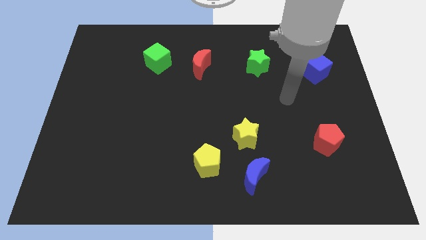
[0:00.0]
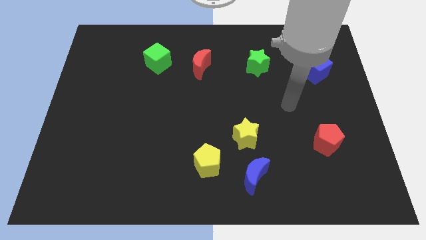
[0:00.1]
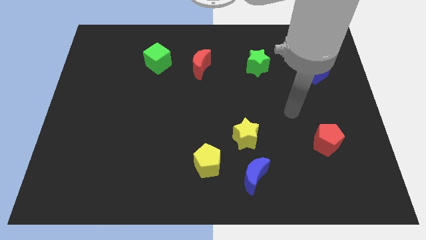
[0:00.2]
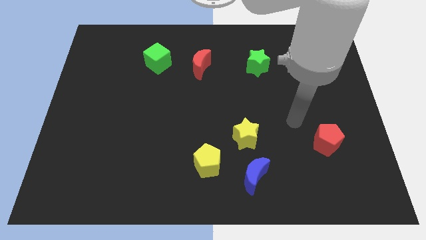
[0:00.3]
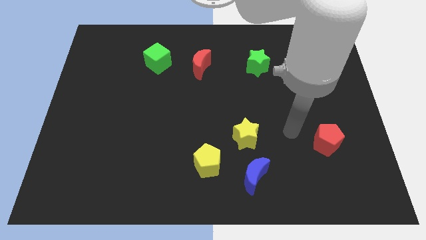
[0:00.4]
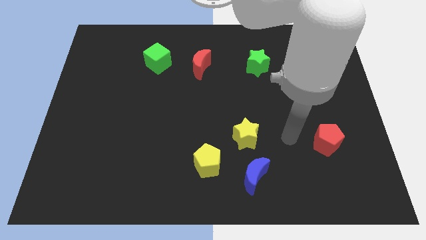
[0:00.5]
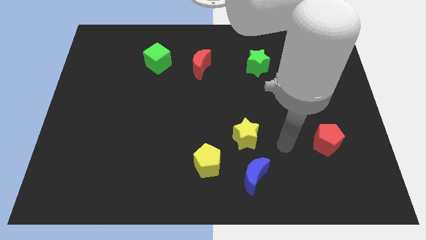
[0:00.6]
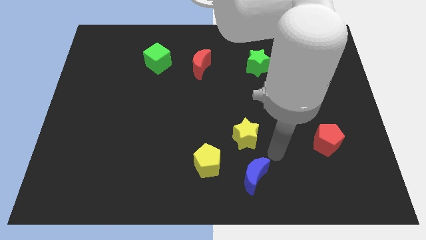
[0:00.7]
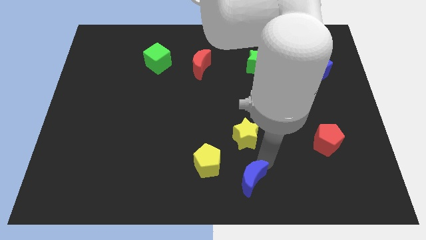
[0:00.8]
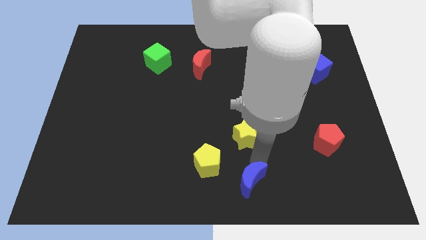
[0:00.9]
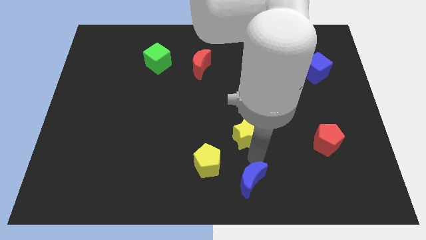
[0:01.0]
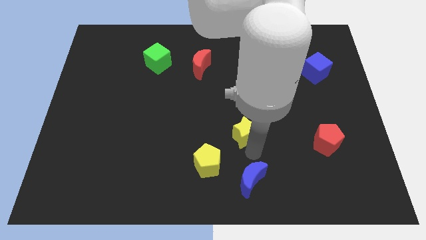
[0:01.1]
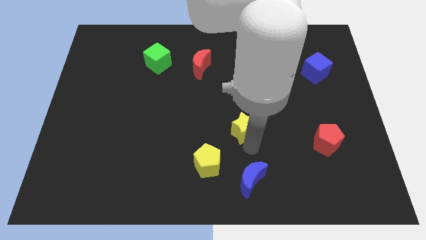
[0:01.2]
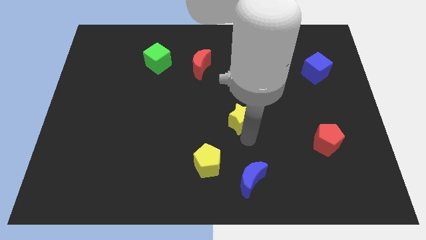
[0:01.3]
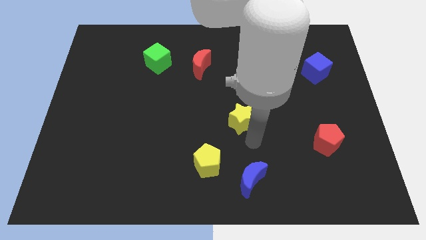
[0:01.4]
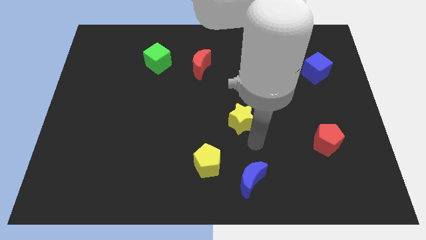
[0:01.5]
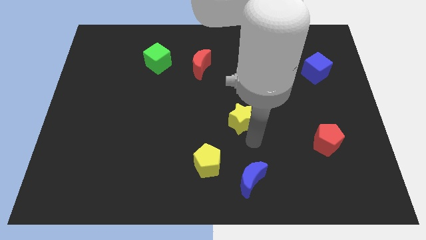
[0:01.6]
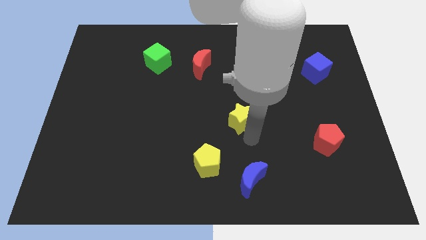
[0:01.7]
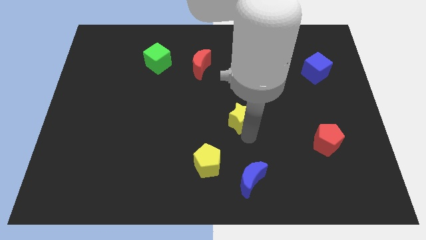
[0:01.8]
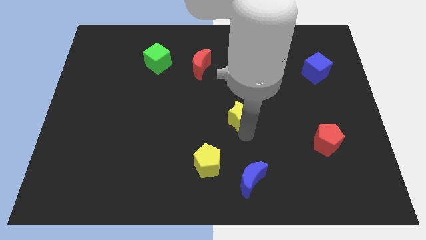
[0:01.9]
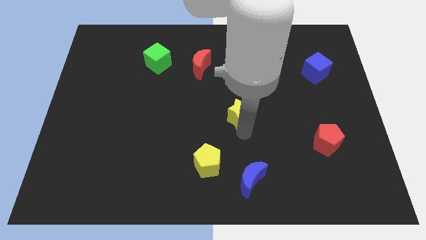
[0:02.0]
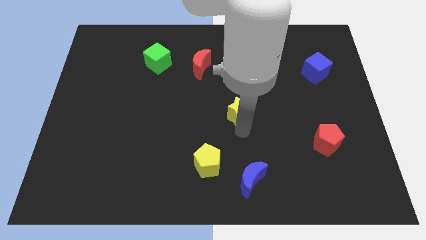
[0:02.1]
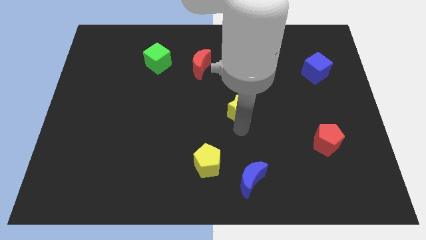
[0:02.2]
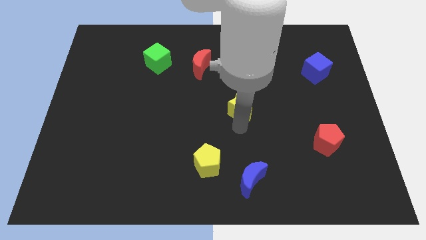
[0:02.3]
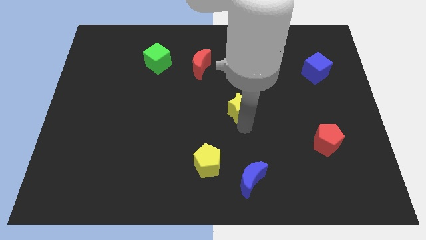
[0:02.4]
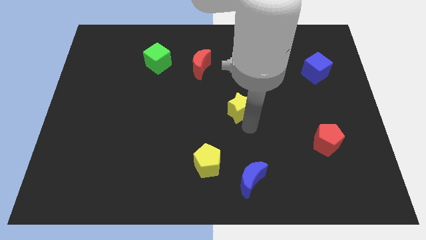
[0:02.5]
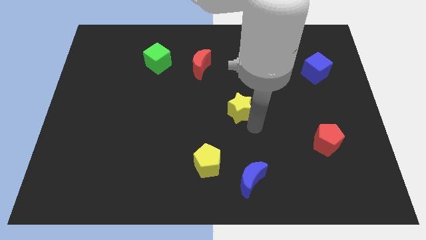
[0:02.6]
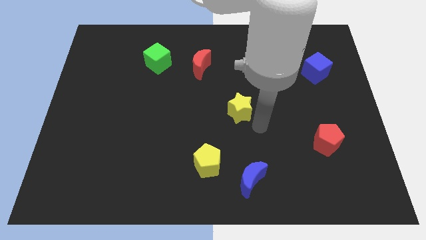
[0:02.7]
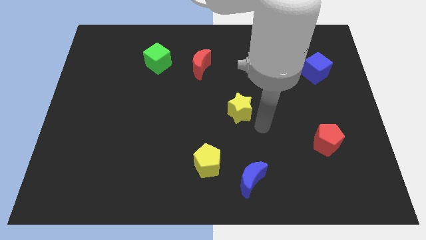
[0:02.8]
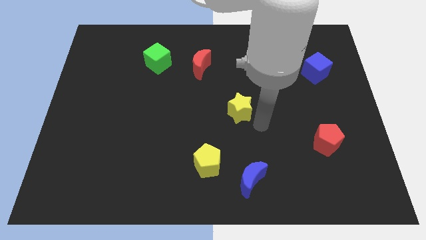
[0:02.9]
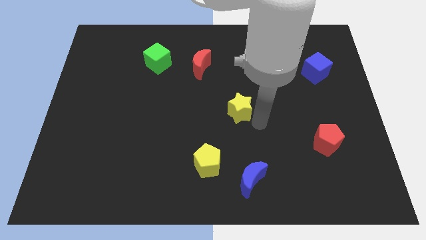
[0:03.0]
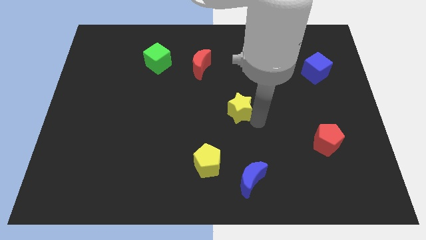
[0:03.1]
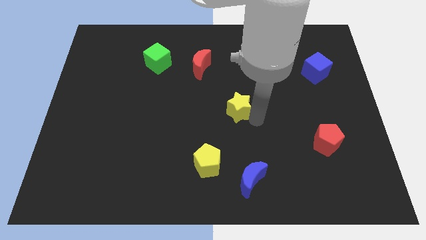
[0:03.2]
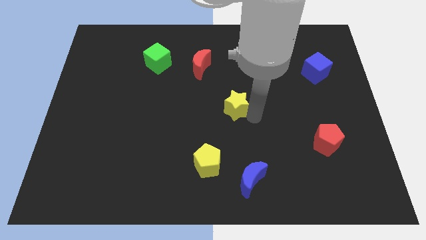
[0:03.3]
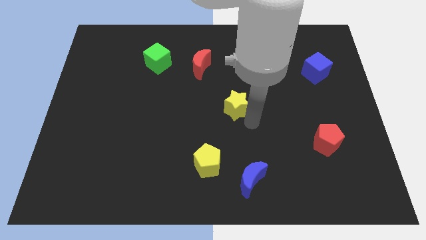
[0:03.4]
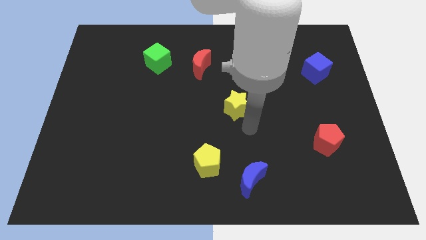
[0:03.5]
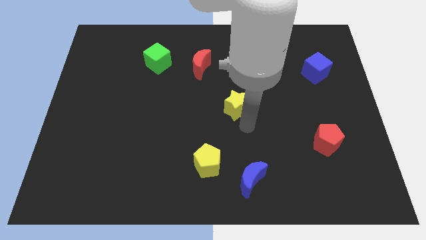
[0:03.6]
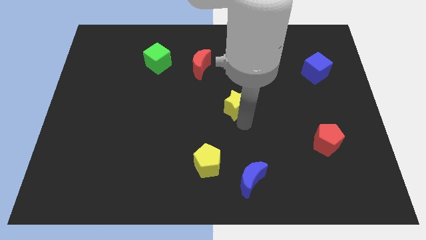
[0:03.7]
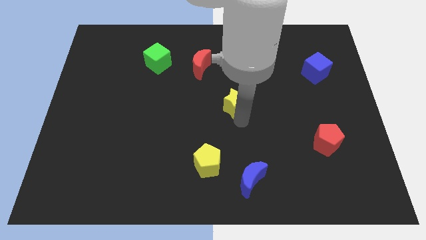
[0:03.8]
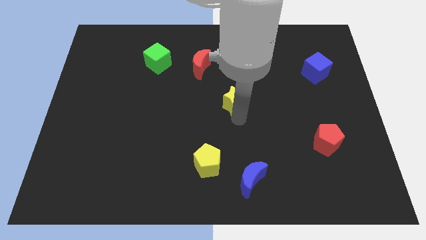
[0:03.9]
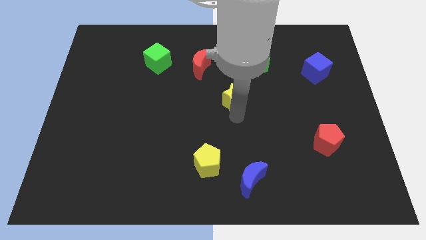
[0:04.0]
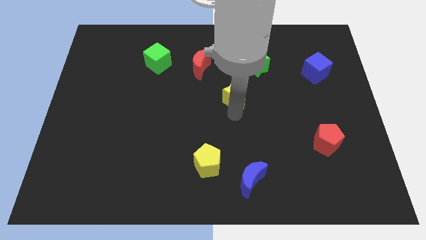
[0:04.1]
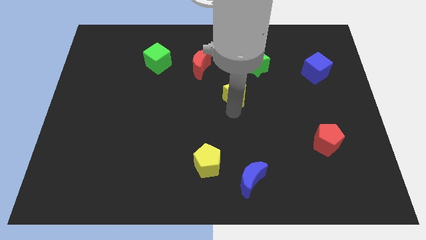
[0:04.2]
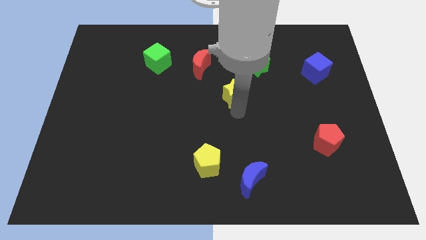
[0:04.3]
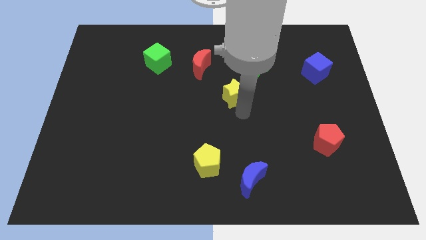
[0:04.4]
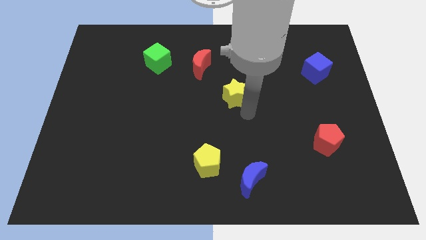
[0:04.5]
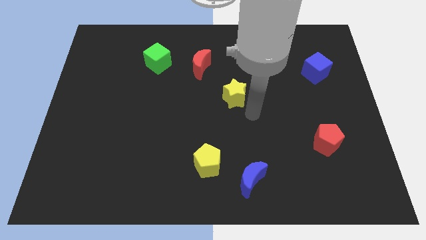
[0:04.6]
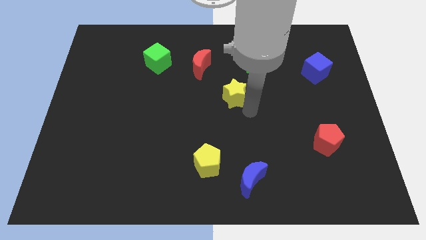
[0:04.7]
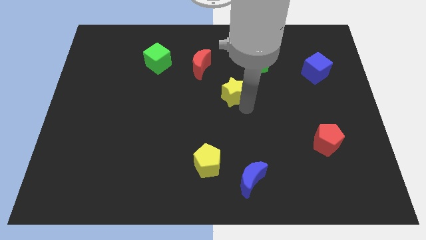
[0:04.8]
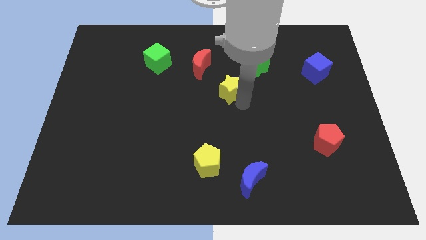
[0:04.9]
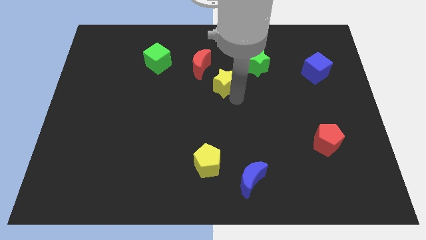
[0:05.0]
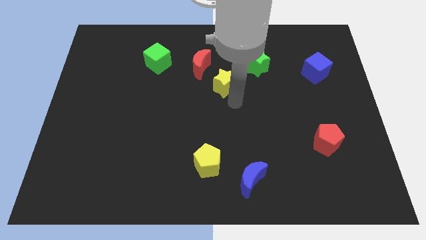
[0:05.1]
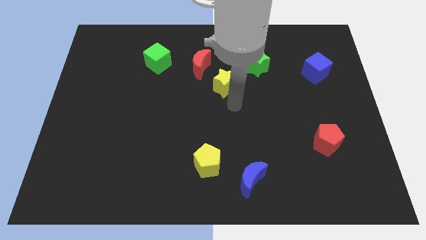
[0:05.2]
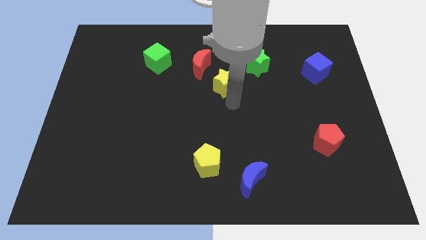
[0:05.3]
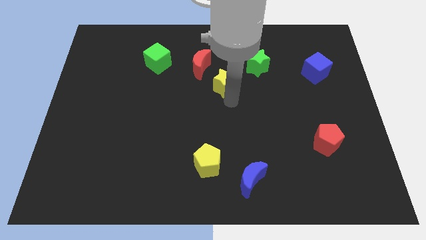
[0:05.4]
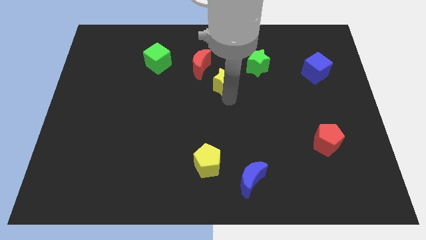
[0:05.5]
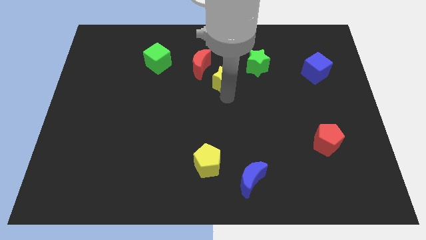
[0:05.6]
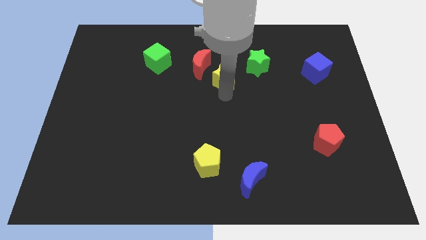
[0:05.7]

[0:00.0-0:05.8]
push the yellow star left of the green star

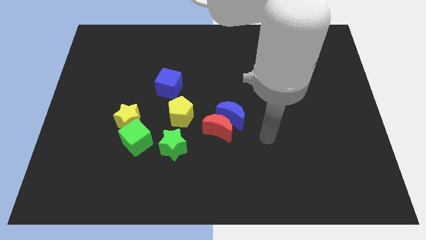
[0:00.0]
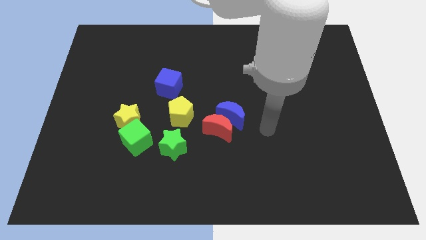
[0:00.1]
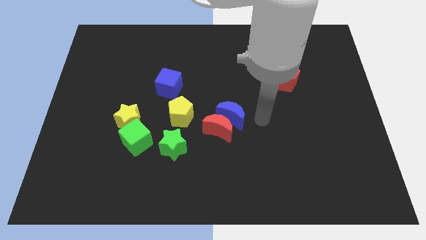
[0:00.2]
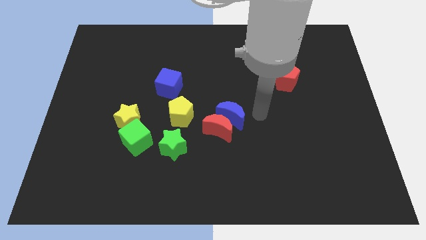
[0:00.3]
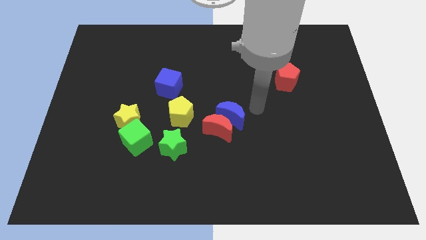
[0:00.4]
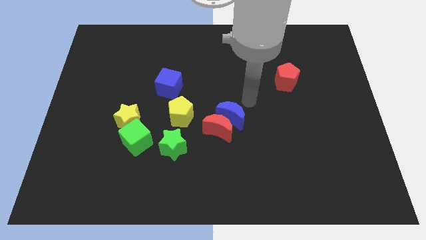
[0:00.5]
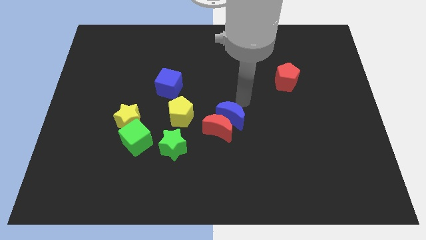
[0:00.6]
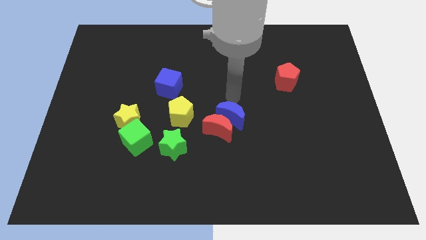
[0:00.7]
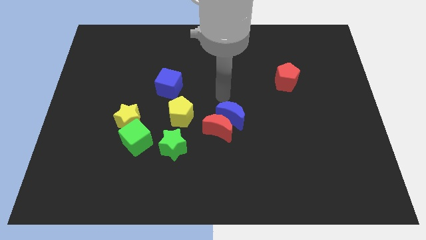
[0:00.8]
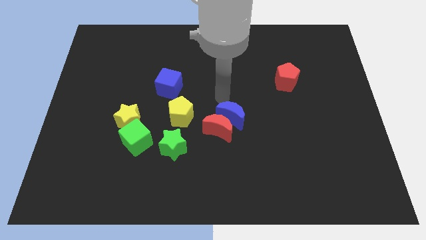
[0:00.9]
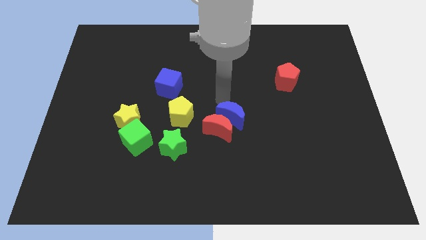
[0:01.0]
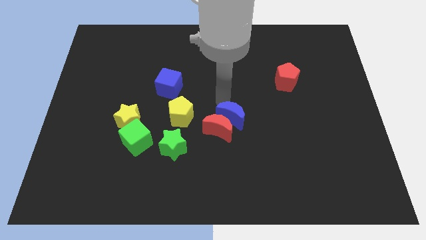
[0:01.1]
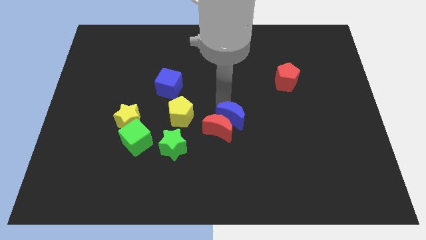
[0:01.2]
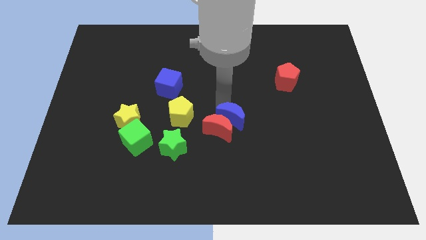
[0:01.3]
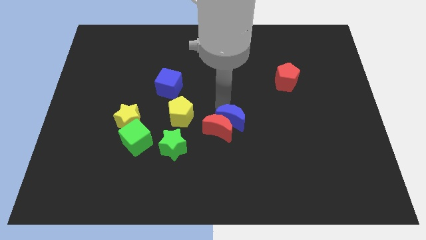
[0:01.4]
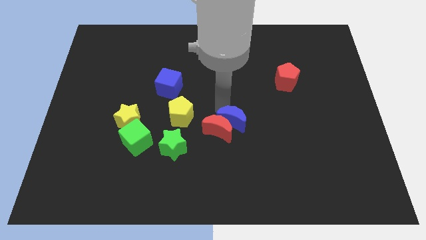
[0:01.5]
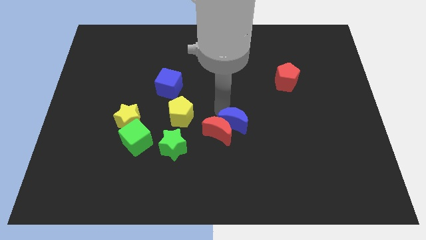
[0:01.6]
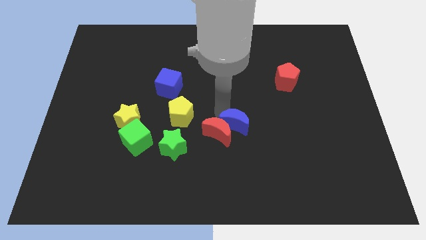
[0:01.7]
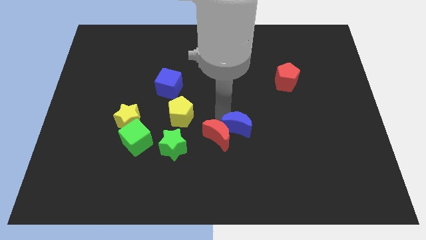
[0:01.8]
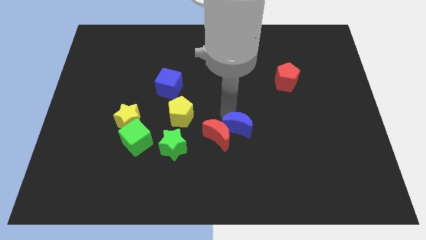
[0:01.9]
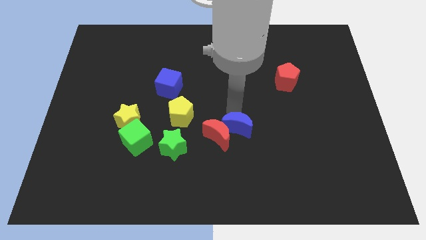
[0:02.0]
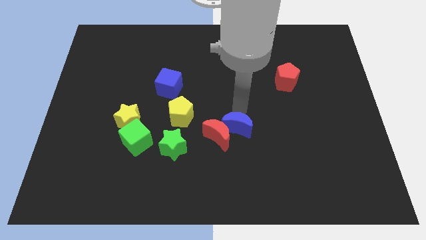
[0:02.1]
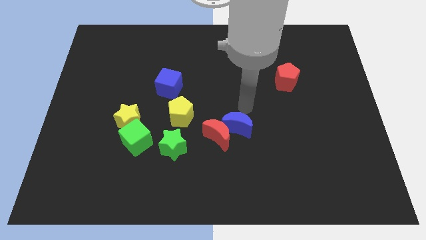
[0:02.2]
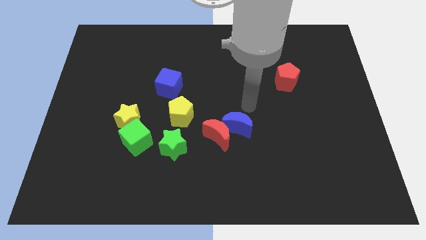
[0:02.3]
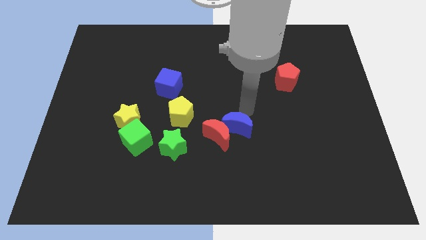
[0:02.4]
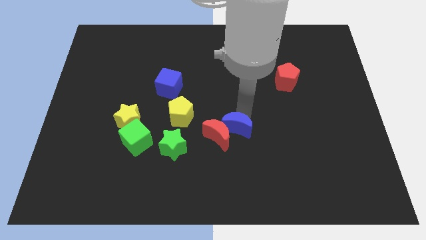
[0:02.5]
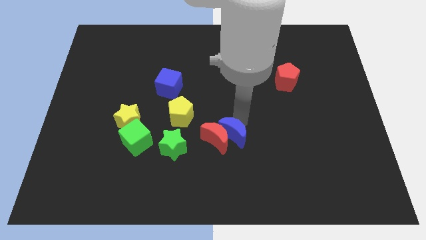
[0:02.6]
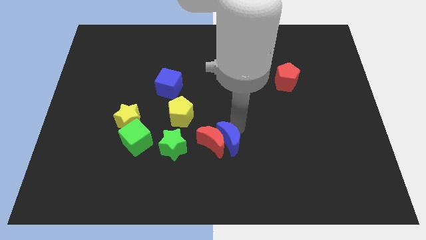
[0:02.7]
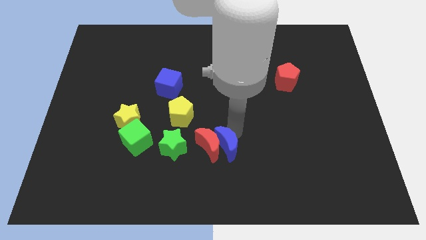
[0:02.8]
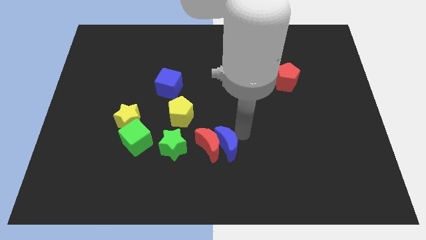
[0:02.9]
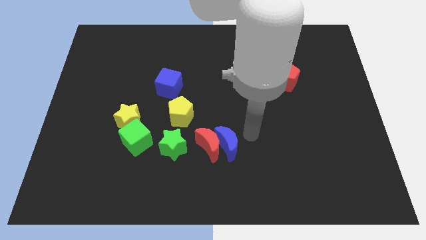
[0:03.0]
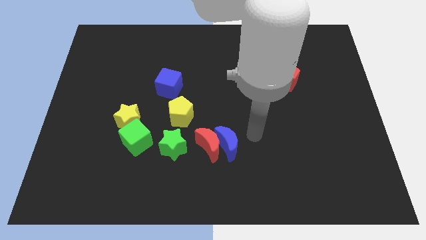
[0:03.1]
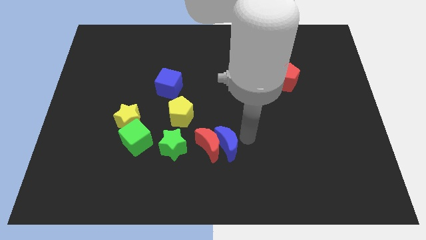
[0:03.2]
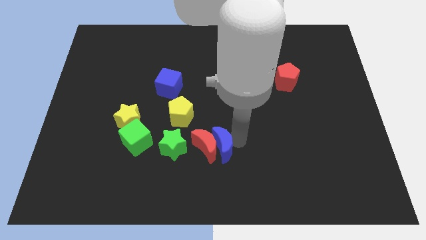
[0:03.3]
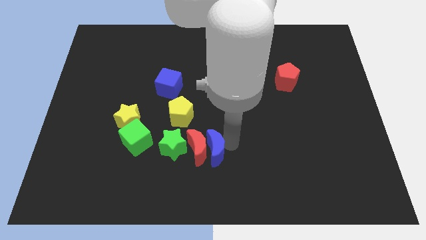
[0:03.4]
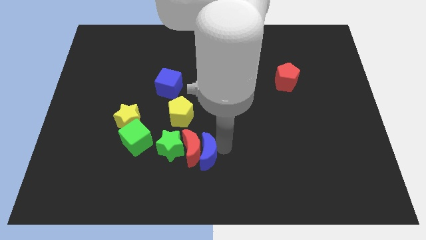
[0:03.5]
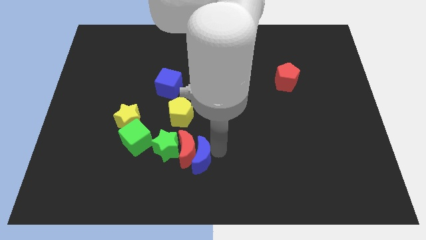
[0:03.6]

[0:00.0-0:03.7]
move the blue moon below the yellow pentagon
